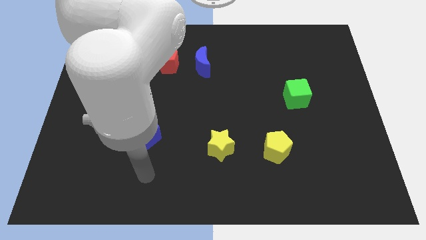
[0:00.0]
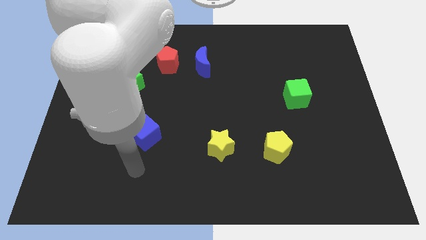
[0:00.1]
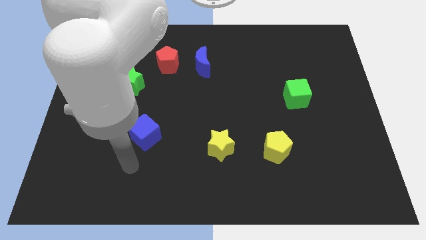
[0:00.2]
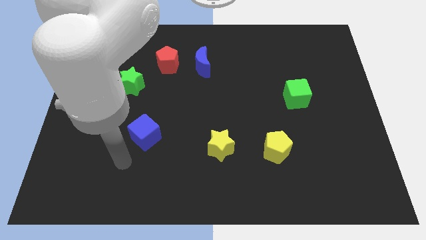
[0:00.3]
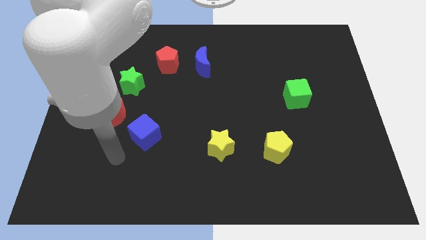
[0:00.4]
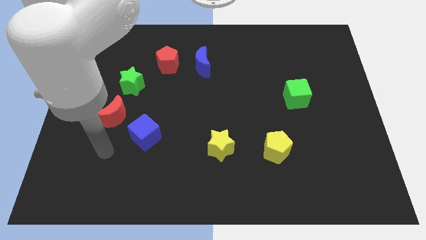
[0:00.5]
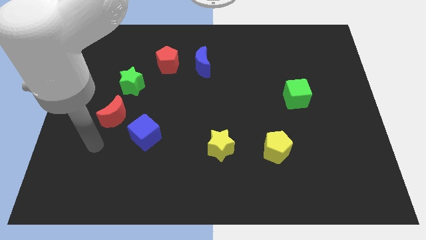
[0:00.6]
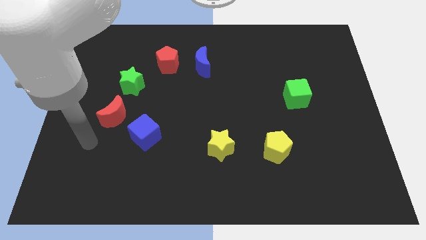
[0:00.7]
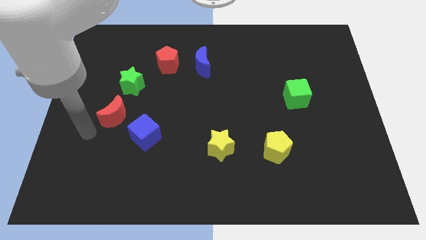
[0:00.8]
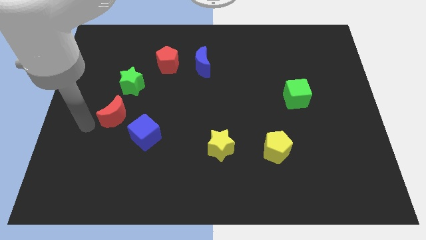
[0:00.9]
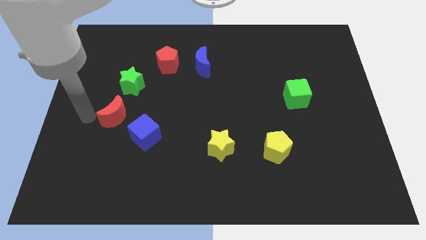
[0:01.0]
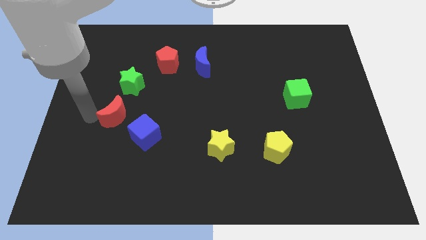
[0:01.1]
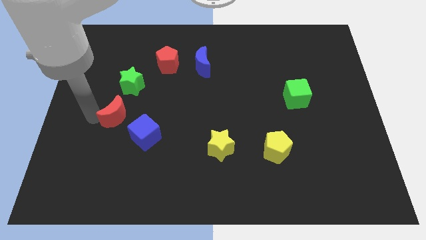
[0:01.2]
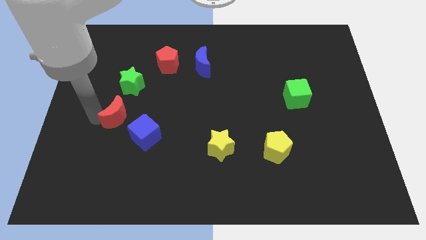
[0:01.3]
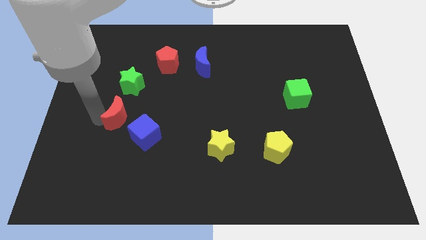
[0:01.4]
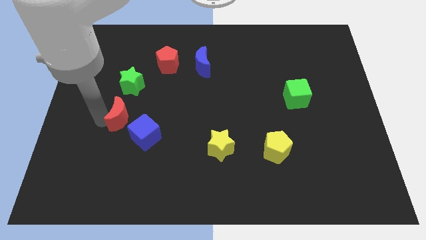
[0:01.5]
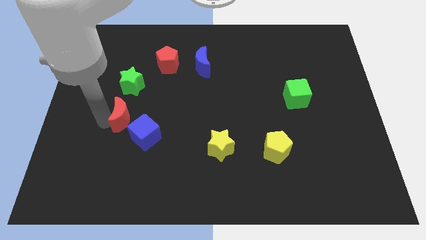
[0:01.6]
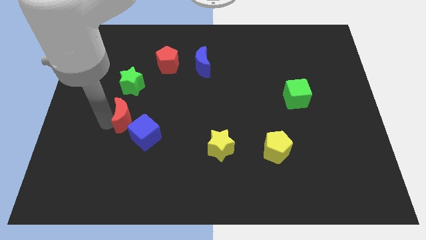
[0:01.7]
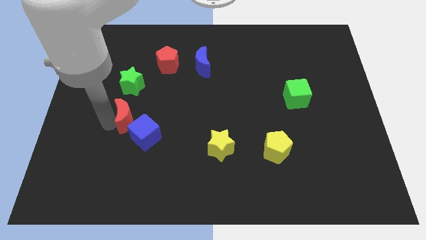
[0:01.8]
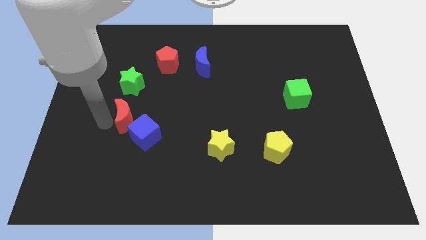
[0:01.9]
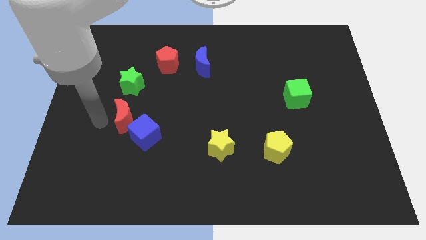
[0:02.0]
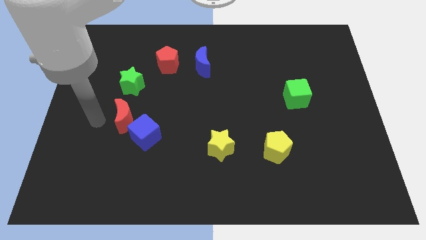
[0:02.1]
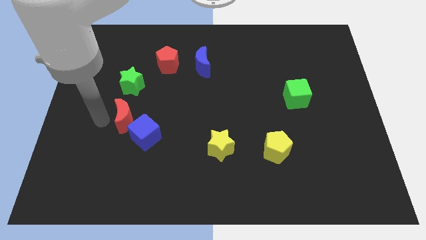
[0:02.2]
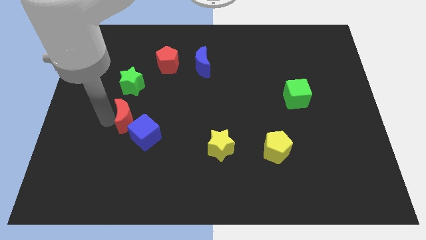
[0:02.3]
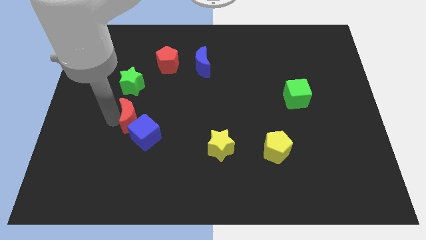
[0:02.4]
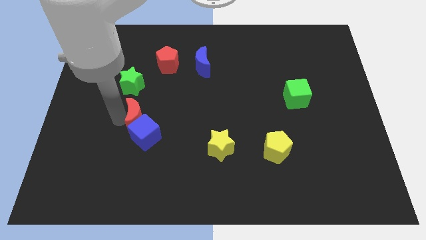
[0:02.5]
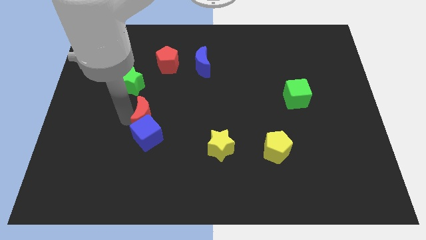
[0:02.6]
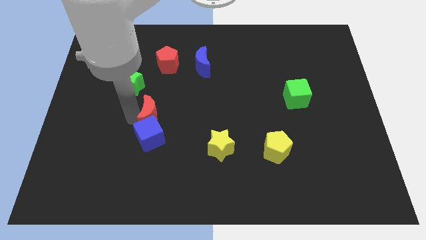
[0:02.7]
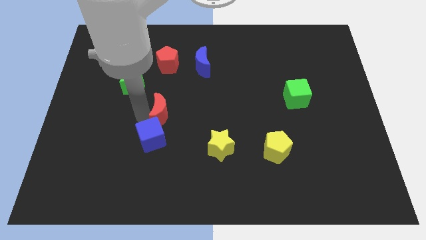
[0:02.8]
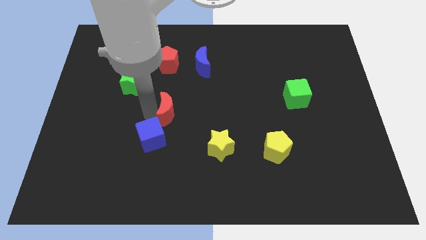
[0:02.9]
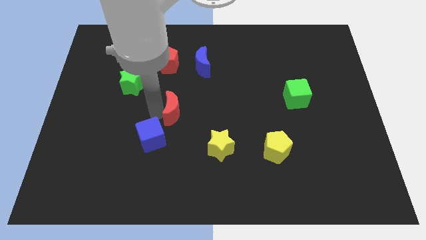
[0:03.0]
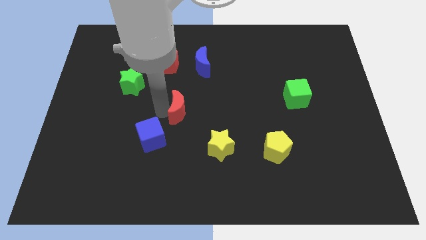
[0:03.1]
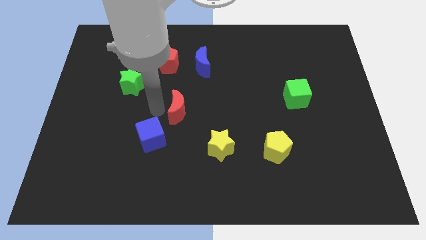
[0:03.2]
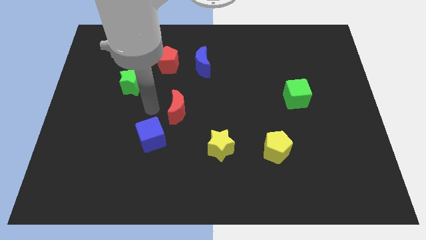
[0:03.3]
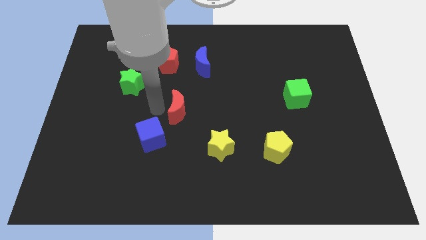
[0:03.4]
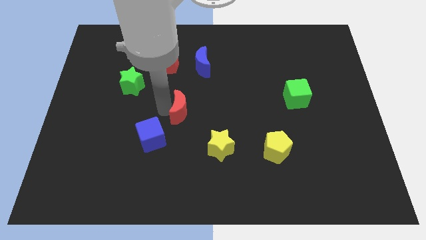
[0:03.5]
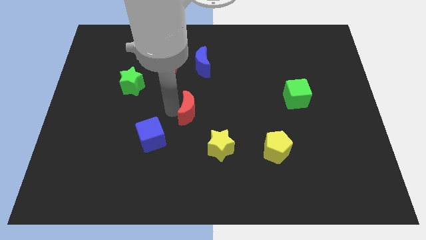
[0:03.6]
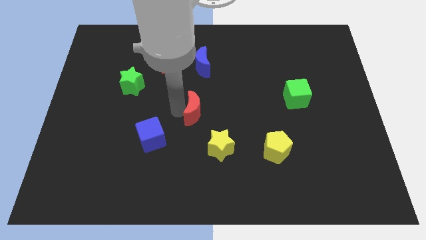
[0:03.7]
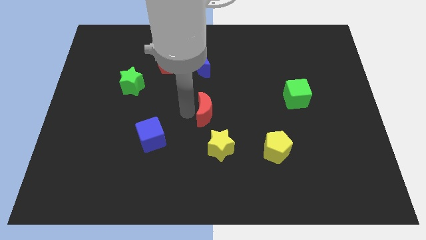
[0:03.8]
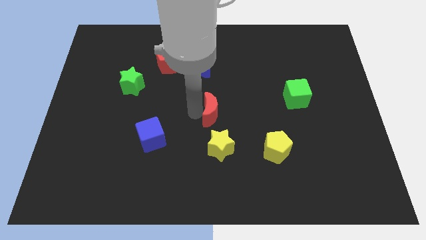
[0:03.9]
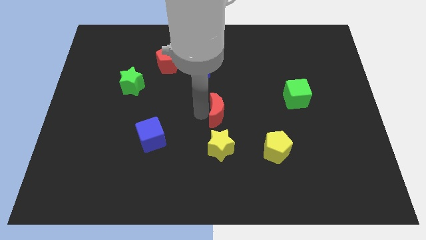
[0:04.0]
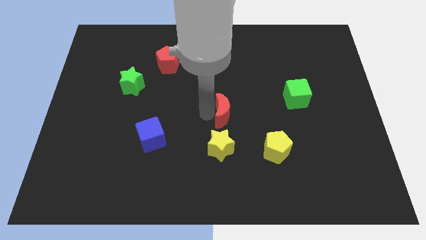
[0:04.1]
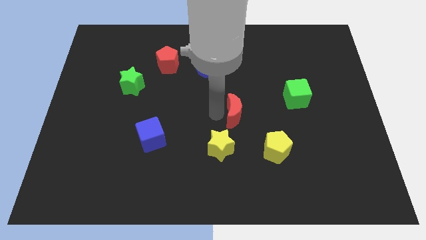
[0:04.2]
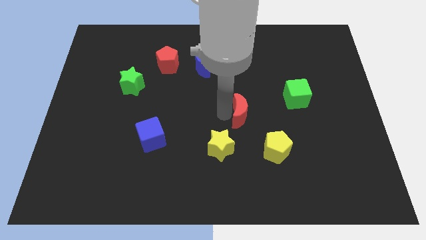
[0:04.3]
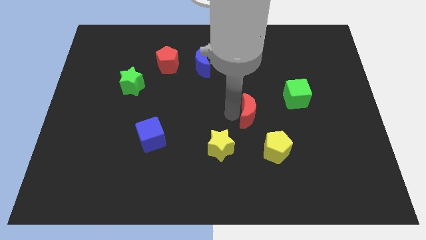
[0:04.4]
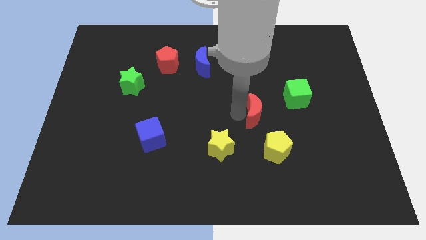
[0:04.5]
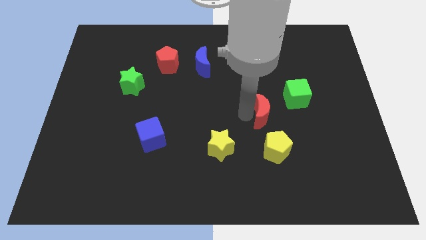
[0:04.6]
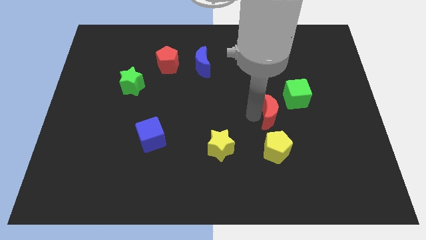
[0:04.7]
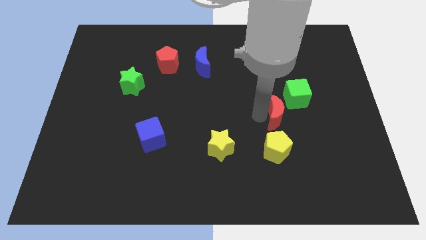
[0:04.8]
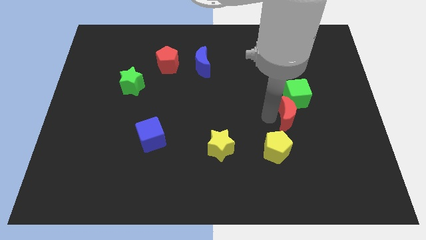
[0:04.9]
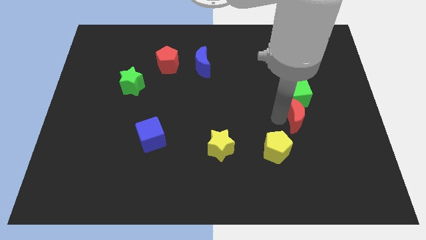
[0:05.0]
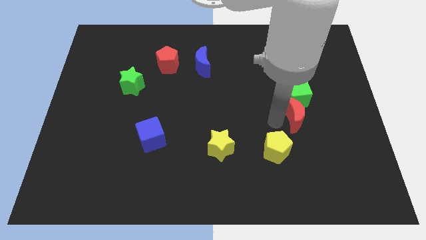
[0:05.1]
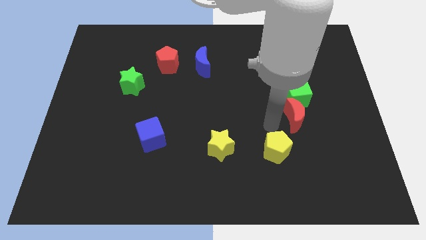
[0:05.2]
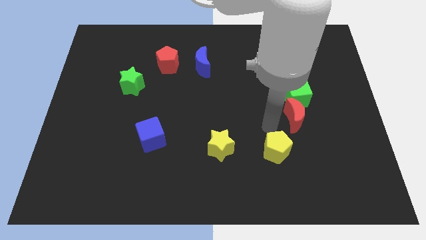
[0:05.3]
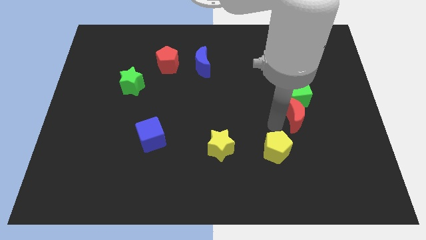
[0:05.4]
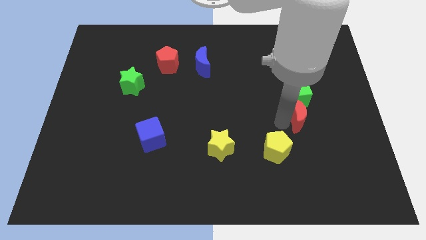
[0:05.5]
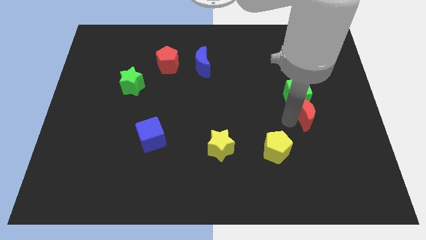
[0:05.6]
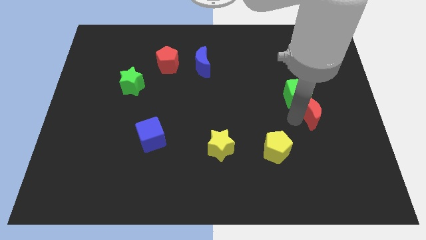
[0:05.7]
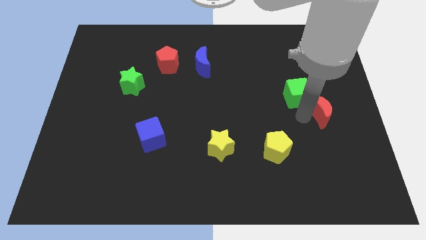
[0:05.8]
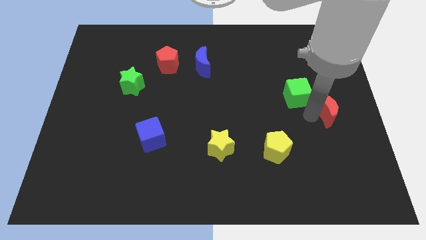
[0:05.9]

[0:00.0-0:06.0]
put the red moon to the right side of the board

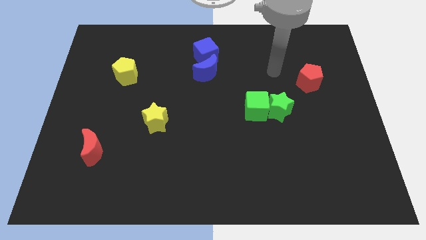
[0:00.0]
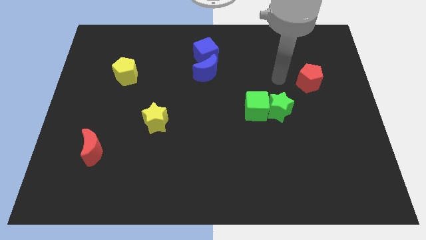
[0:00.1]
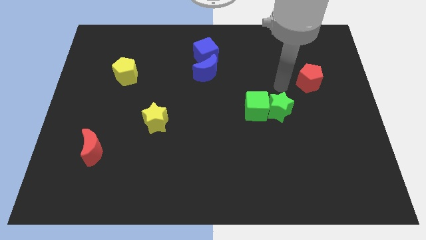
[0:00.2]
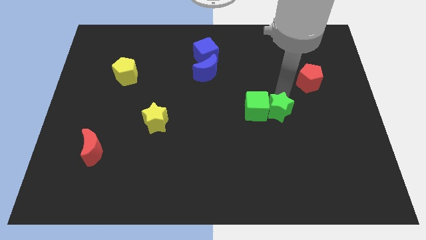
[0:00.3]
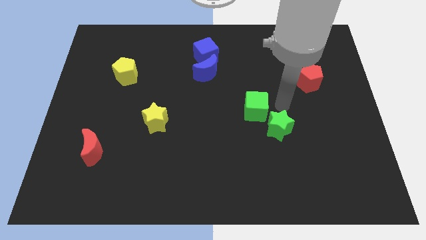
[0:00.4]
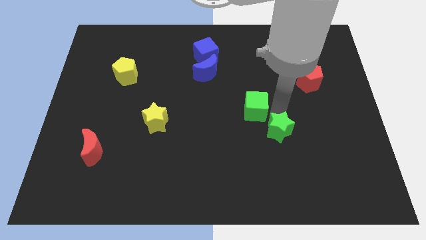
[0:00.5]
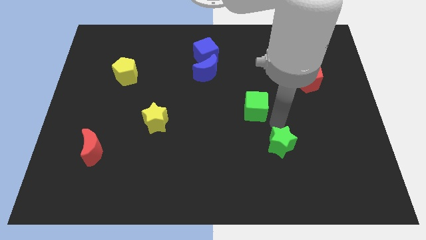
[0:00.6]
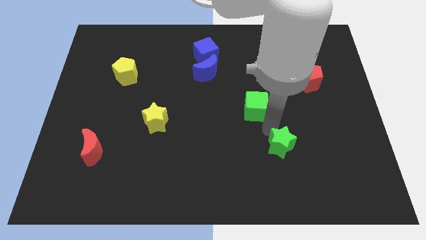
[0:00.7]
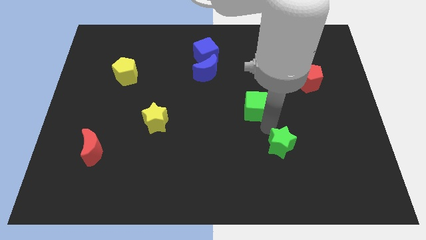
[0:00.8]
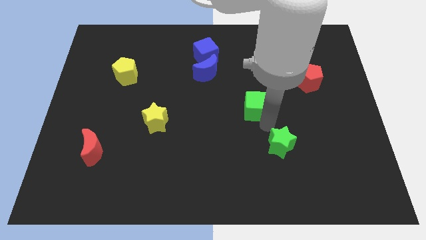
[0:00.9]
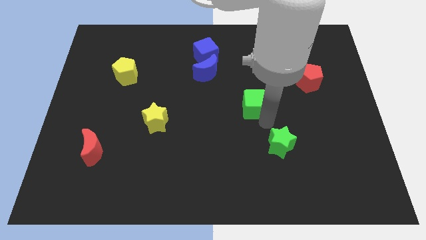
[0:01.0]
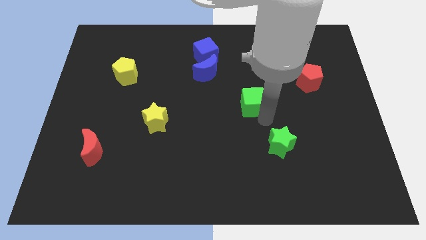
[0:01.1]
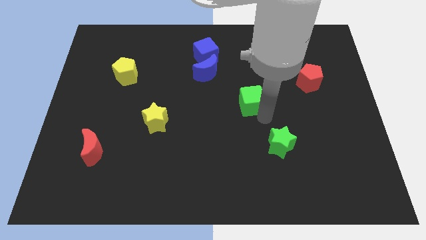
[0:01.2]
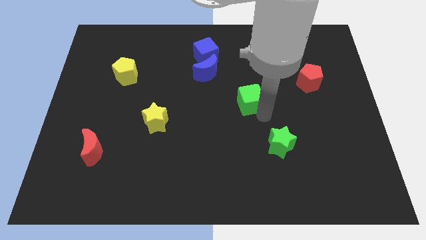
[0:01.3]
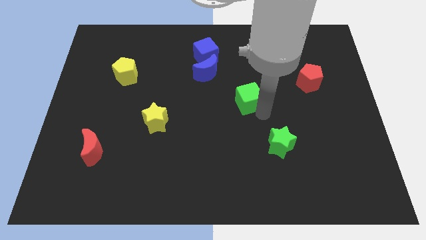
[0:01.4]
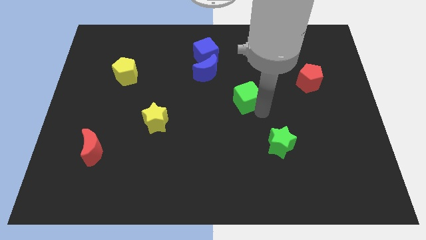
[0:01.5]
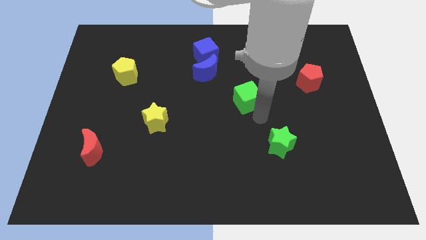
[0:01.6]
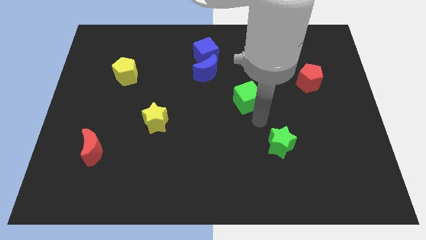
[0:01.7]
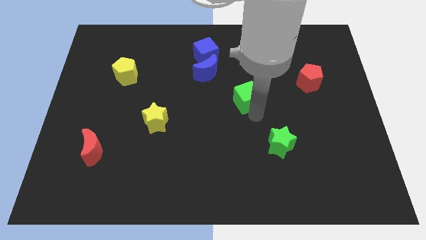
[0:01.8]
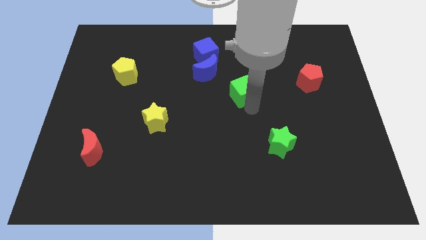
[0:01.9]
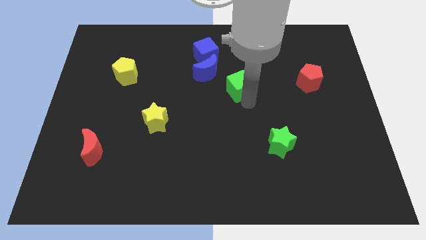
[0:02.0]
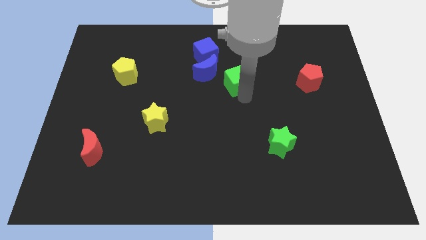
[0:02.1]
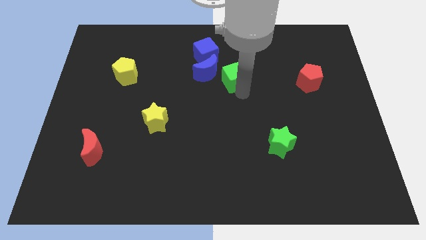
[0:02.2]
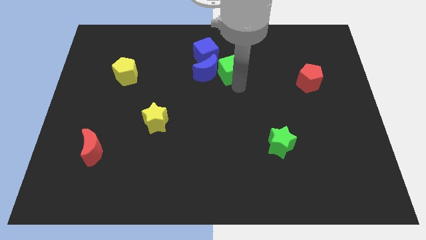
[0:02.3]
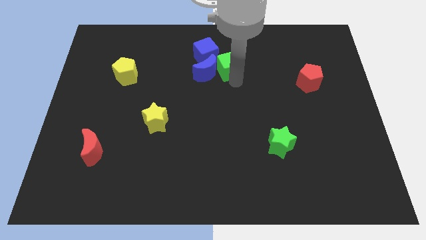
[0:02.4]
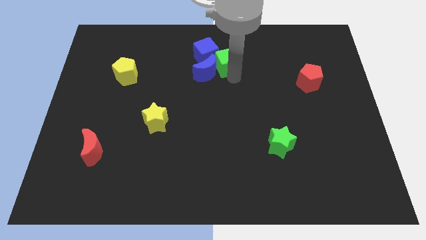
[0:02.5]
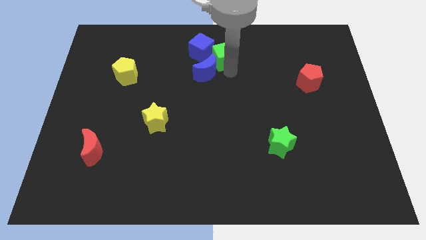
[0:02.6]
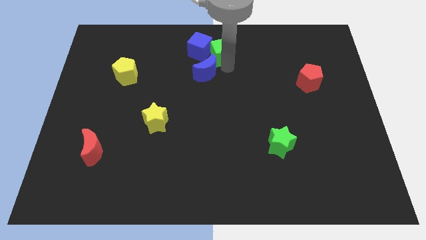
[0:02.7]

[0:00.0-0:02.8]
push the green cube to the top
